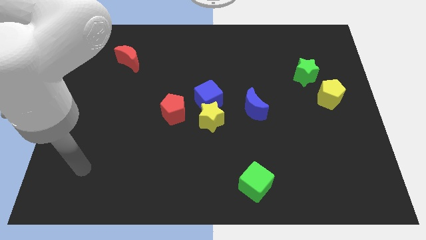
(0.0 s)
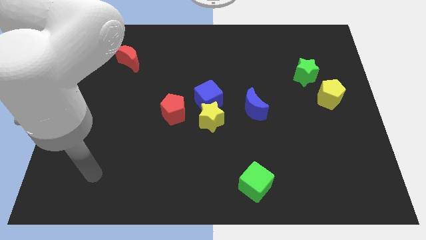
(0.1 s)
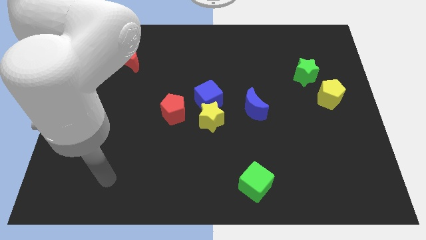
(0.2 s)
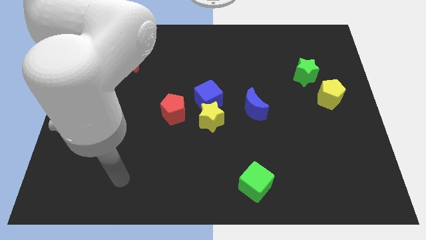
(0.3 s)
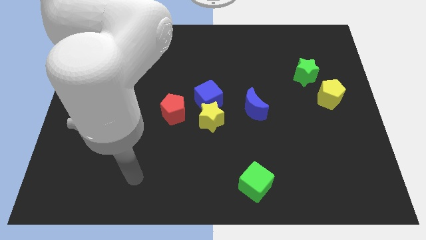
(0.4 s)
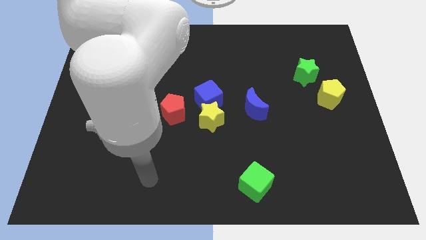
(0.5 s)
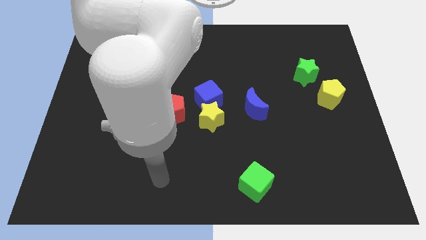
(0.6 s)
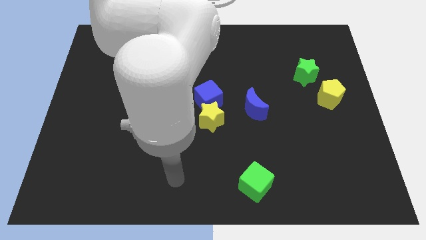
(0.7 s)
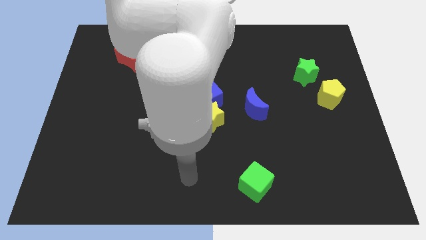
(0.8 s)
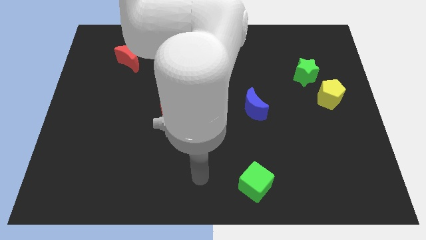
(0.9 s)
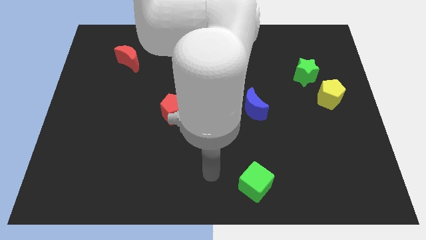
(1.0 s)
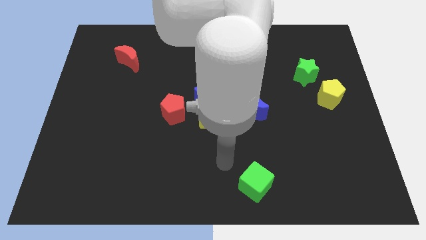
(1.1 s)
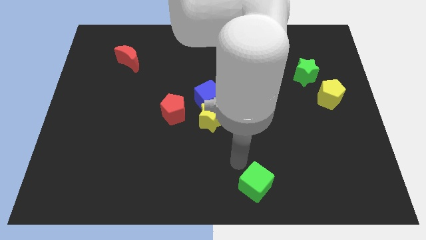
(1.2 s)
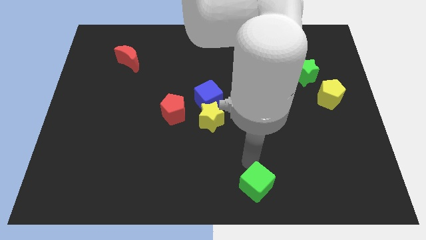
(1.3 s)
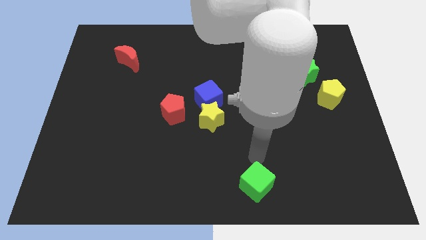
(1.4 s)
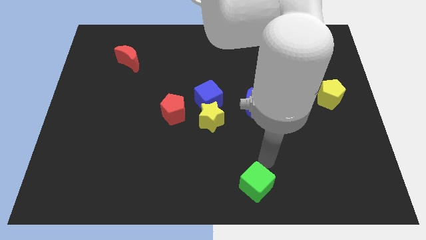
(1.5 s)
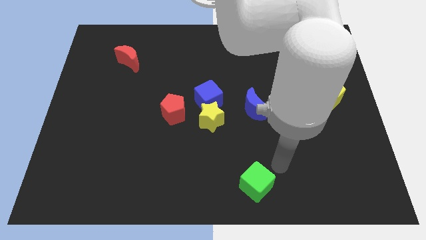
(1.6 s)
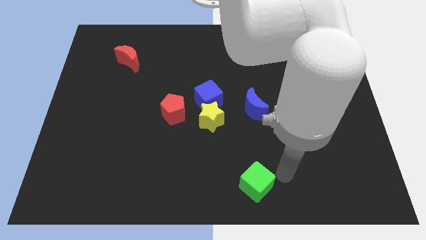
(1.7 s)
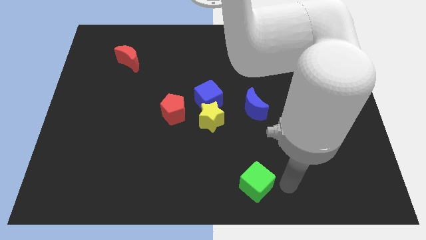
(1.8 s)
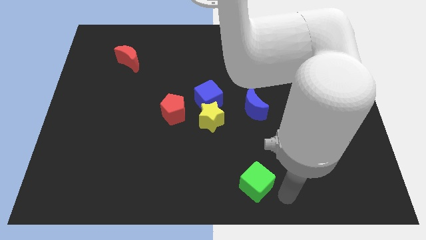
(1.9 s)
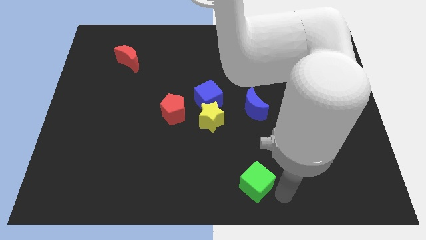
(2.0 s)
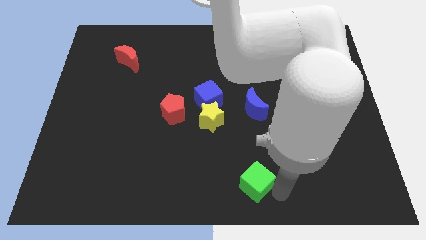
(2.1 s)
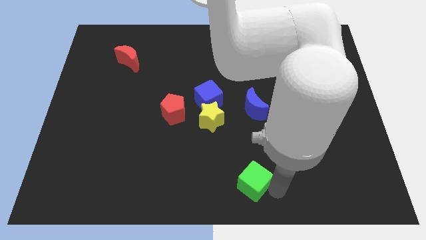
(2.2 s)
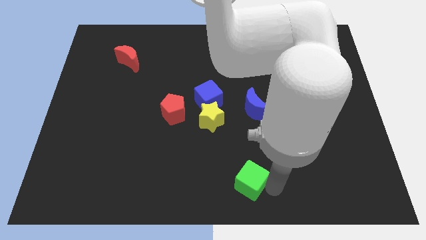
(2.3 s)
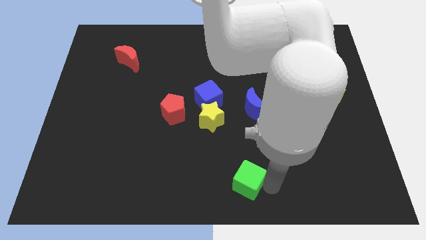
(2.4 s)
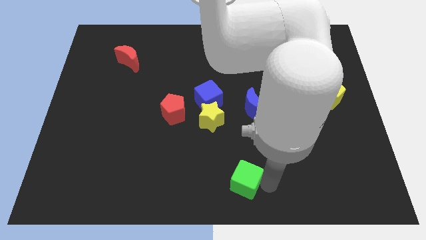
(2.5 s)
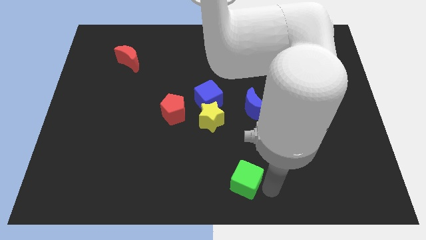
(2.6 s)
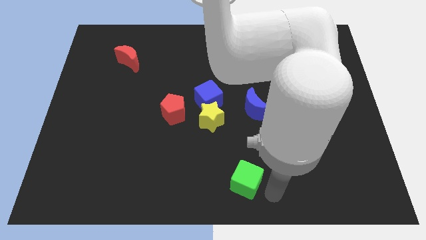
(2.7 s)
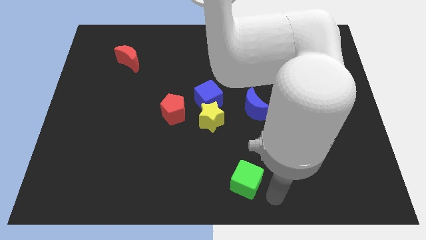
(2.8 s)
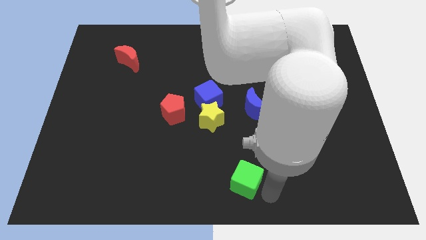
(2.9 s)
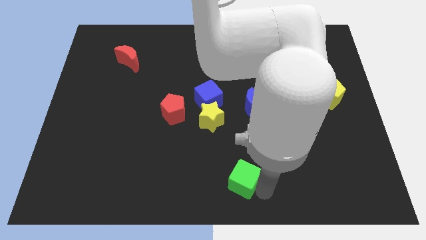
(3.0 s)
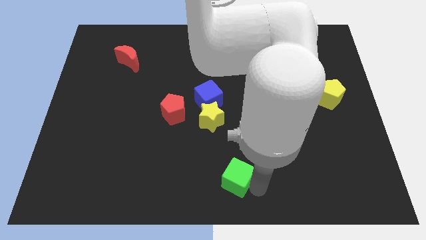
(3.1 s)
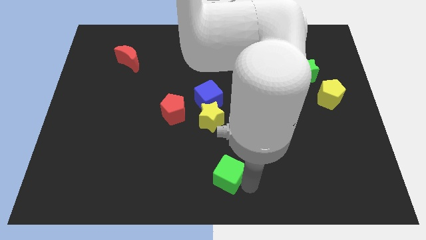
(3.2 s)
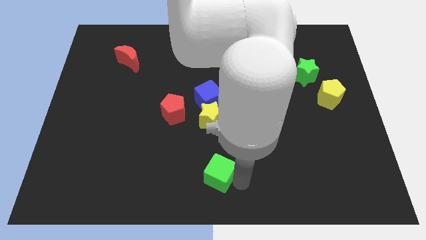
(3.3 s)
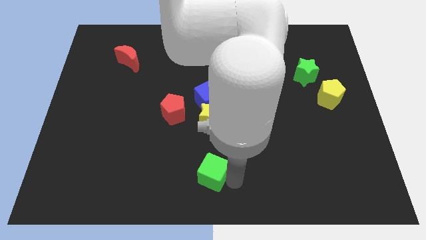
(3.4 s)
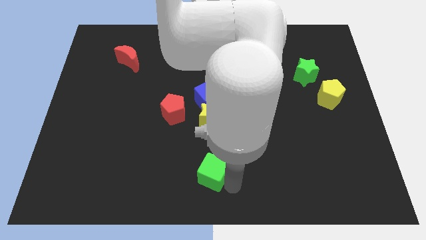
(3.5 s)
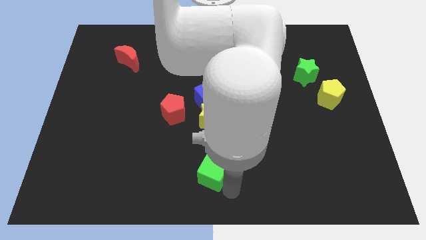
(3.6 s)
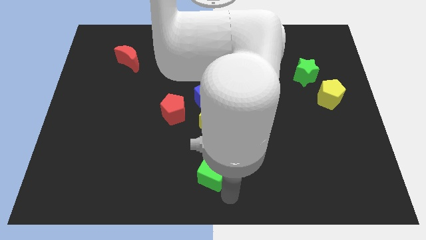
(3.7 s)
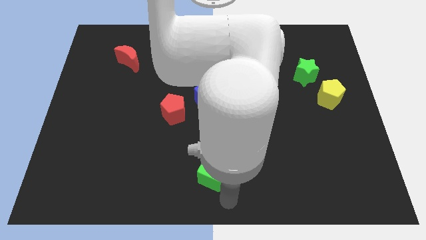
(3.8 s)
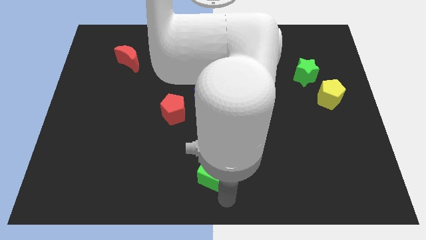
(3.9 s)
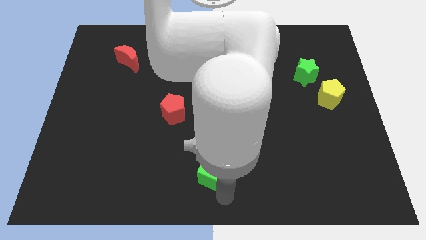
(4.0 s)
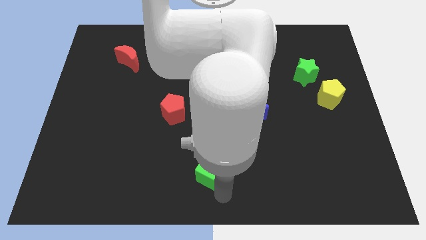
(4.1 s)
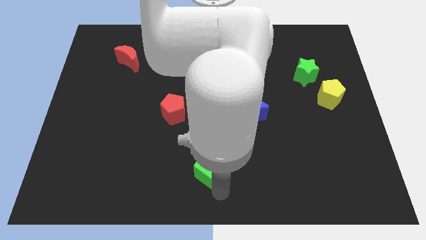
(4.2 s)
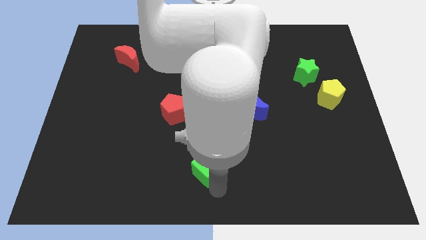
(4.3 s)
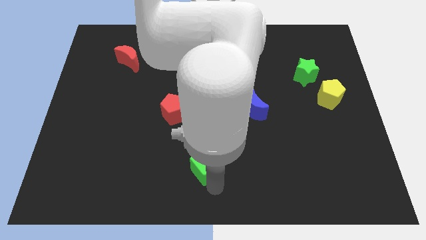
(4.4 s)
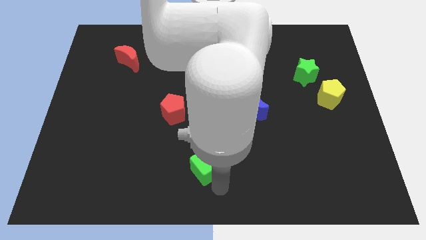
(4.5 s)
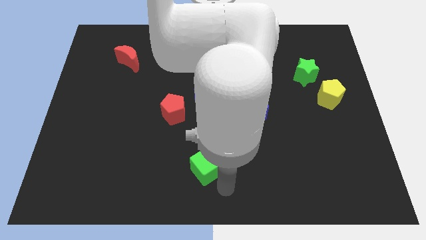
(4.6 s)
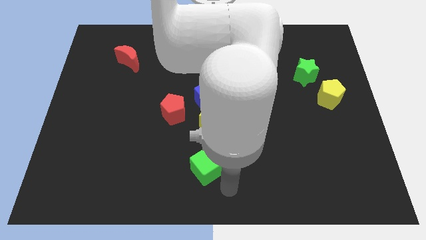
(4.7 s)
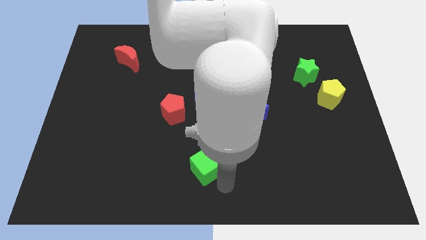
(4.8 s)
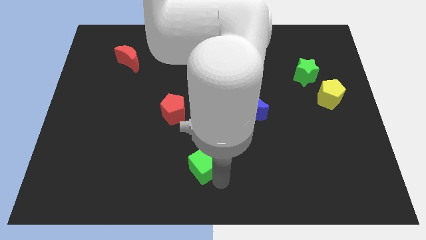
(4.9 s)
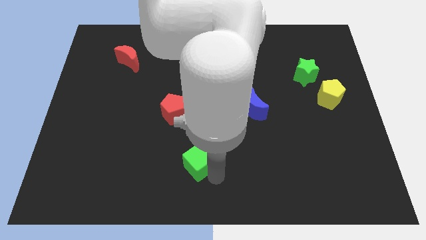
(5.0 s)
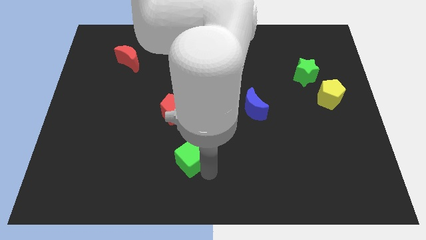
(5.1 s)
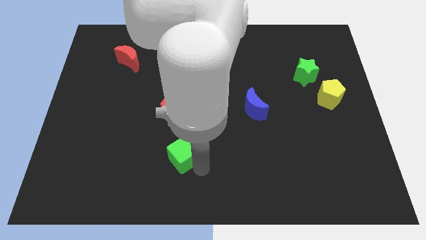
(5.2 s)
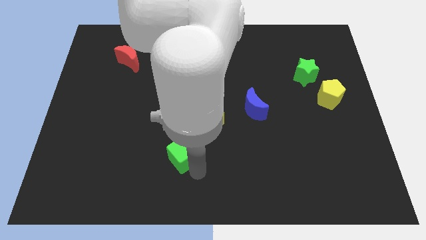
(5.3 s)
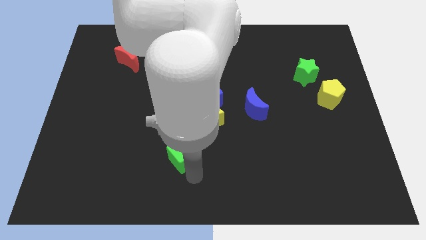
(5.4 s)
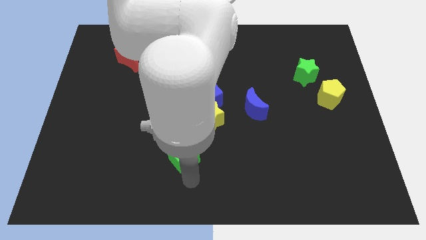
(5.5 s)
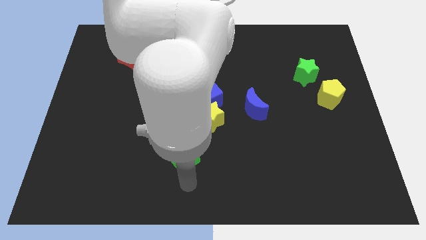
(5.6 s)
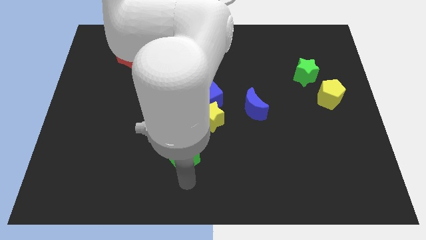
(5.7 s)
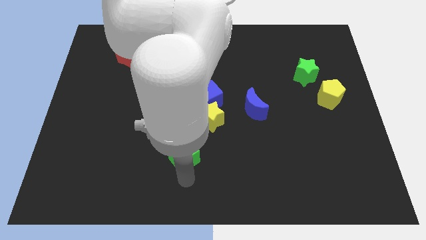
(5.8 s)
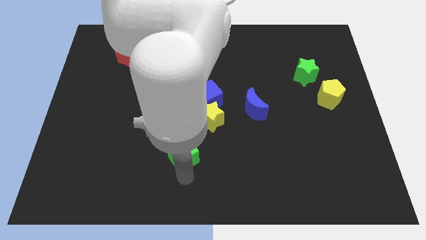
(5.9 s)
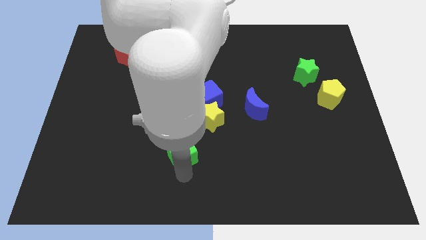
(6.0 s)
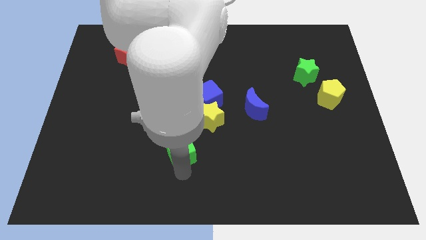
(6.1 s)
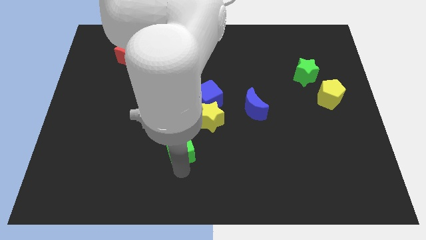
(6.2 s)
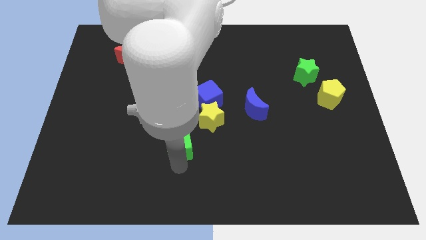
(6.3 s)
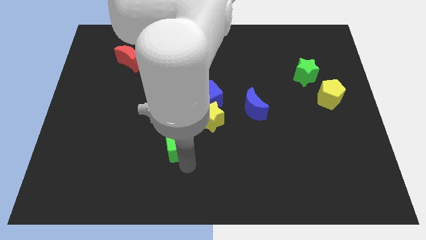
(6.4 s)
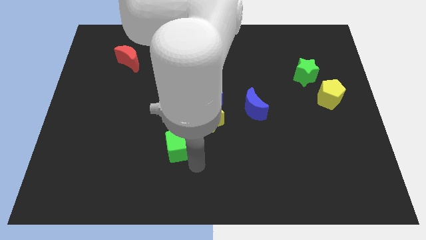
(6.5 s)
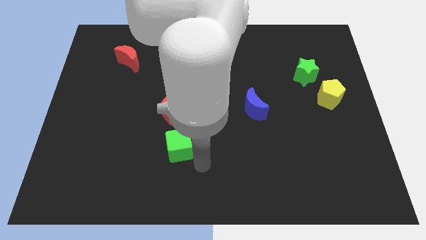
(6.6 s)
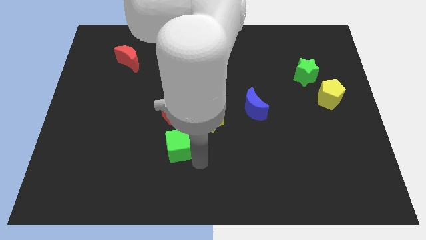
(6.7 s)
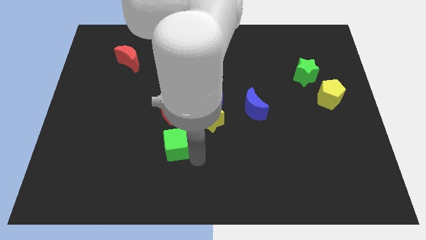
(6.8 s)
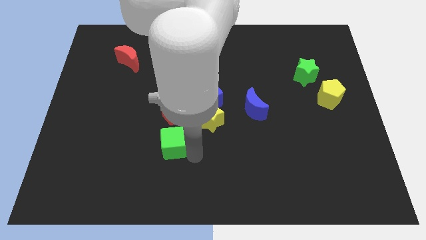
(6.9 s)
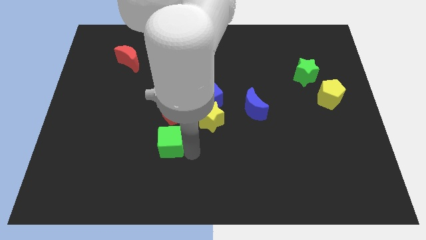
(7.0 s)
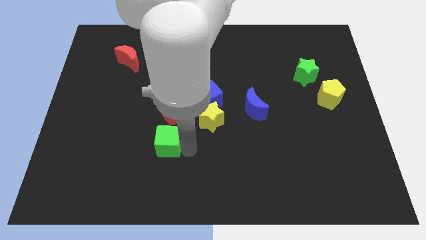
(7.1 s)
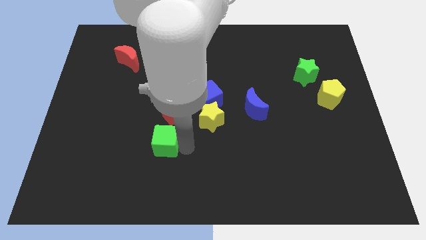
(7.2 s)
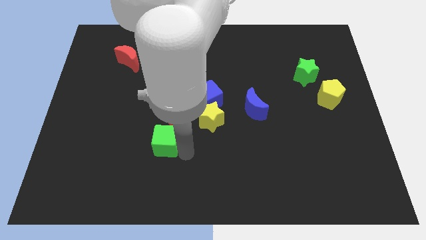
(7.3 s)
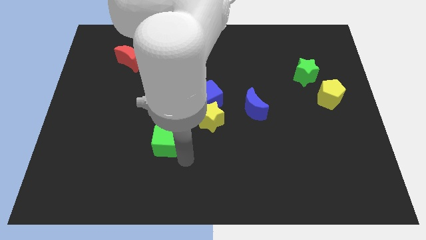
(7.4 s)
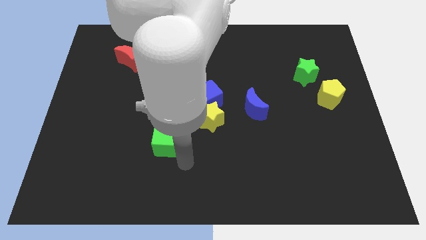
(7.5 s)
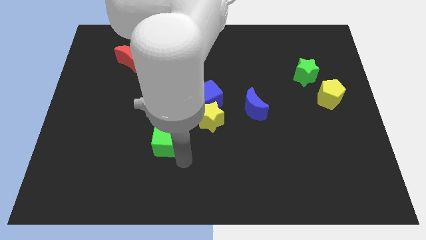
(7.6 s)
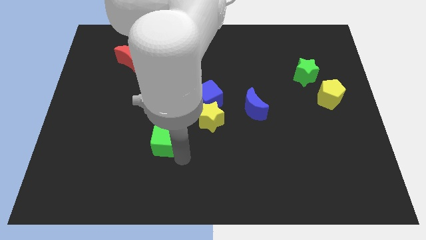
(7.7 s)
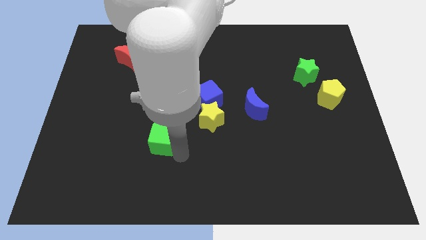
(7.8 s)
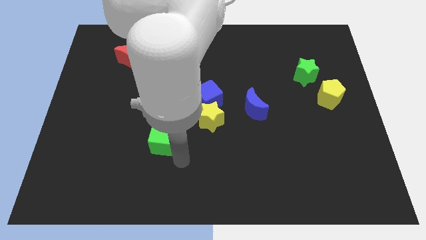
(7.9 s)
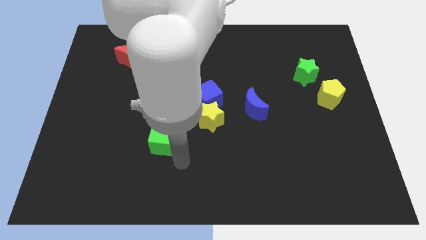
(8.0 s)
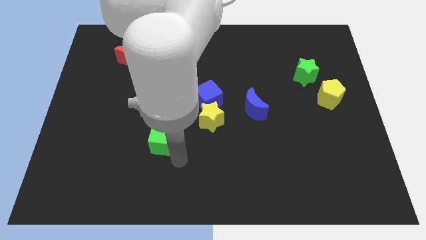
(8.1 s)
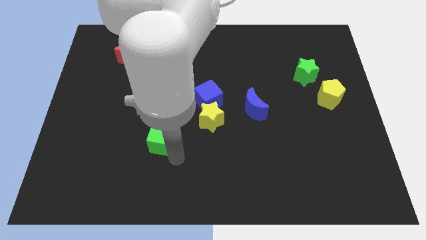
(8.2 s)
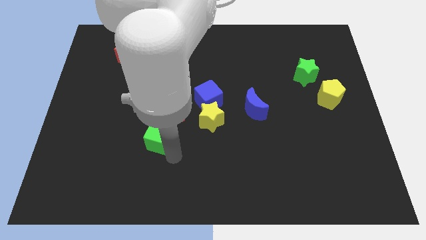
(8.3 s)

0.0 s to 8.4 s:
move the green cube diagonally up and left
